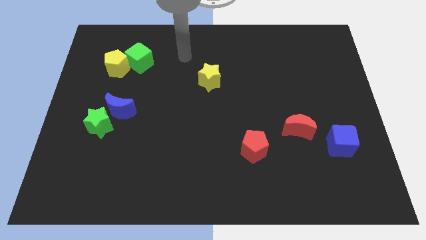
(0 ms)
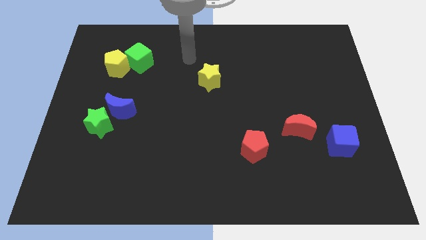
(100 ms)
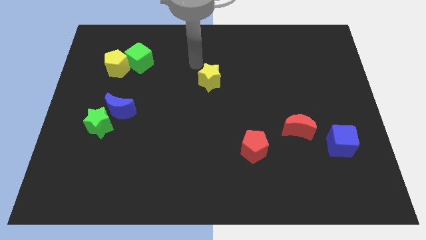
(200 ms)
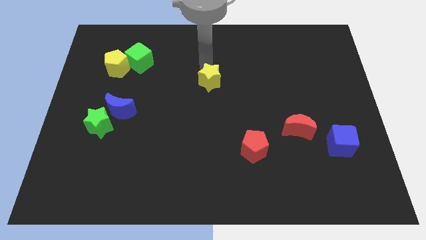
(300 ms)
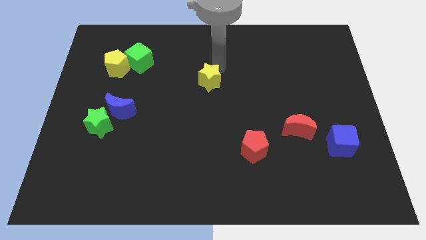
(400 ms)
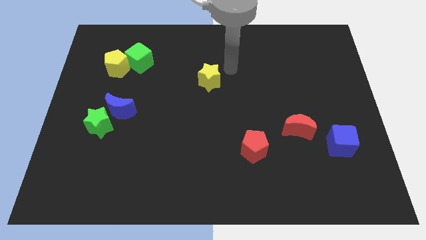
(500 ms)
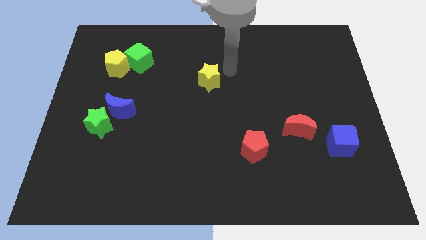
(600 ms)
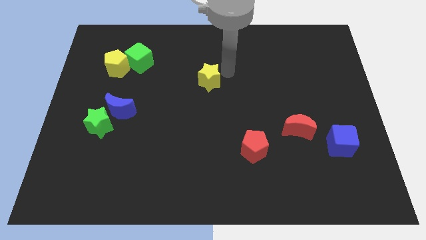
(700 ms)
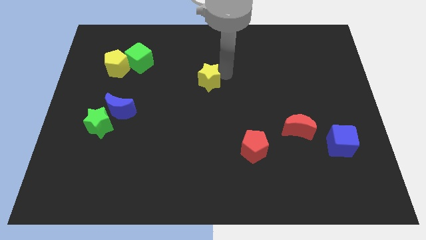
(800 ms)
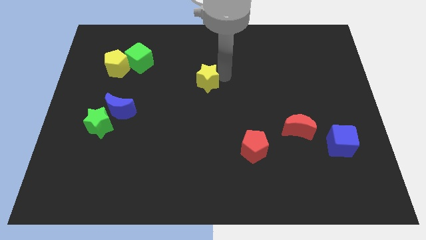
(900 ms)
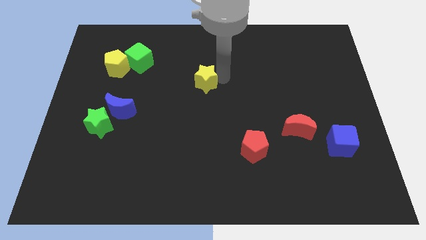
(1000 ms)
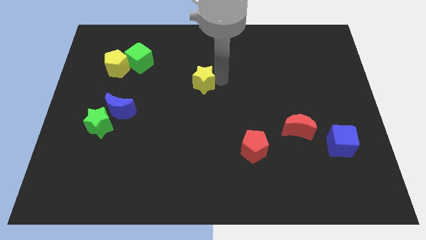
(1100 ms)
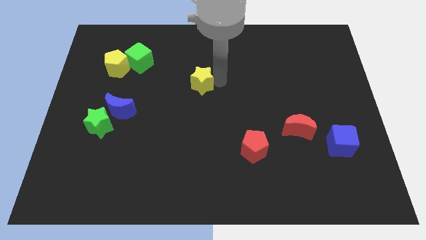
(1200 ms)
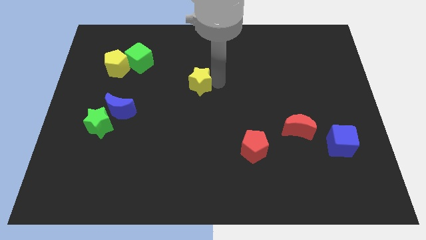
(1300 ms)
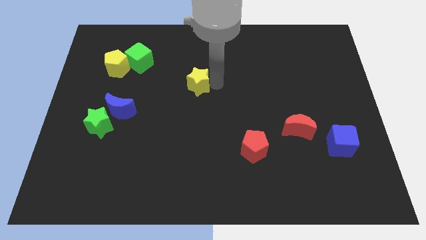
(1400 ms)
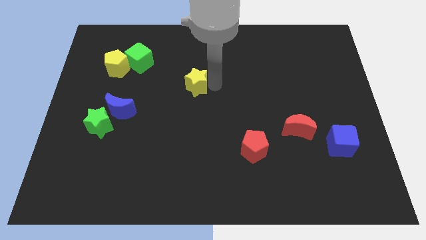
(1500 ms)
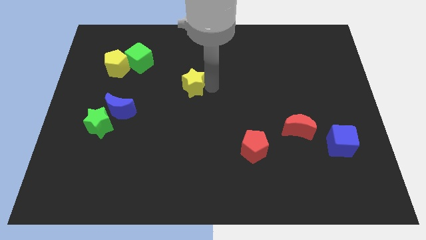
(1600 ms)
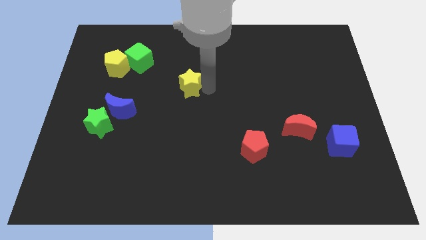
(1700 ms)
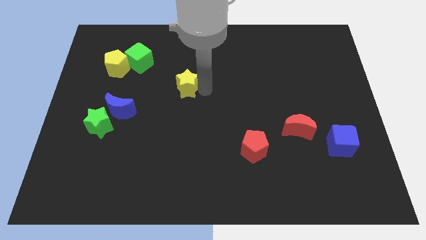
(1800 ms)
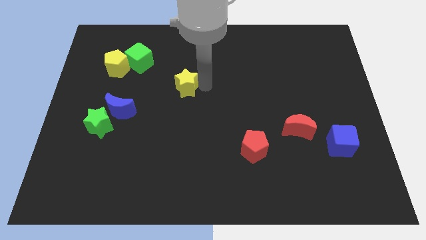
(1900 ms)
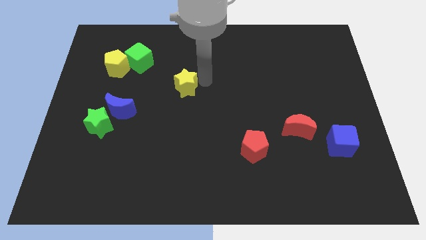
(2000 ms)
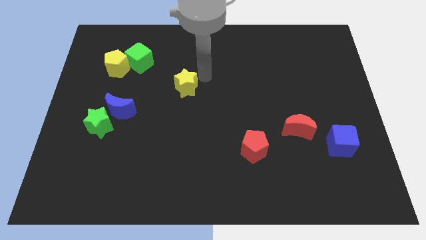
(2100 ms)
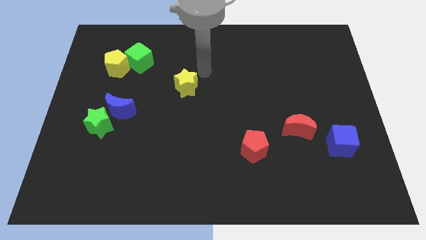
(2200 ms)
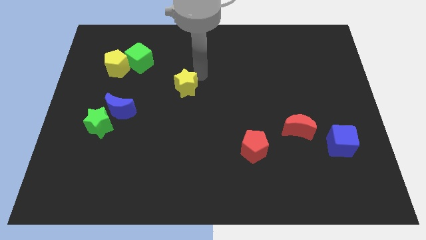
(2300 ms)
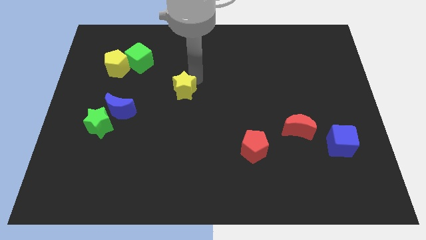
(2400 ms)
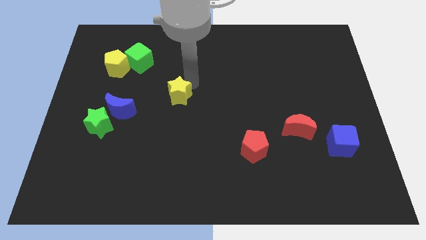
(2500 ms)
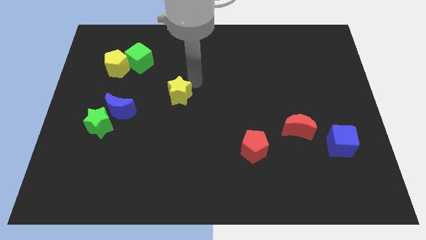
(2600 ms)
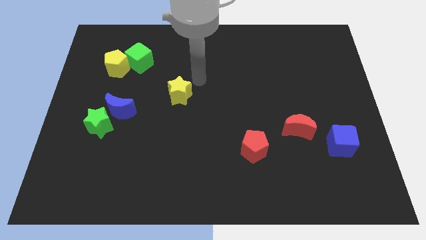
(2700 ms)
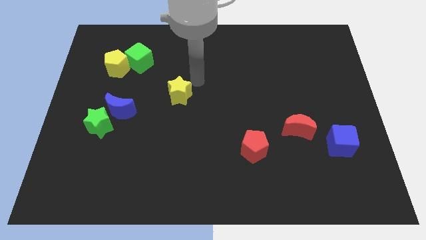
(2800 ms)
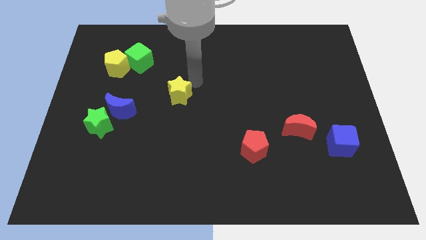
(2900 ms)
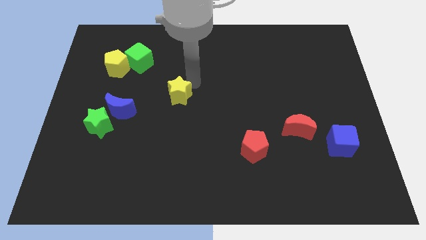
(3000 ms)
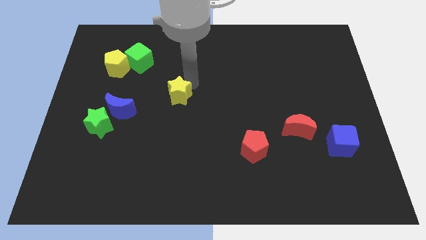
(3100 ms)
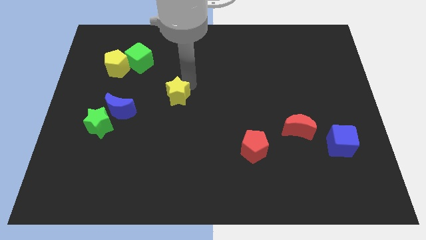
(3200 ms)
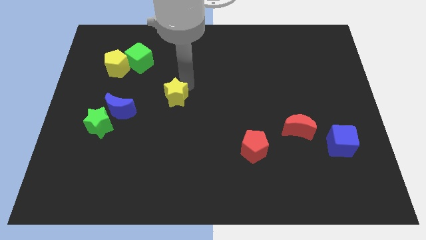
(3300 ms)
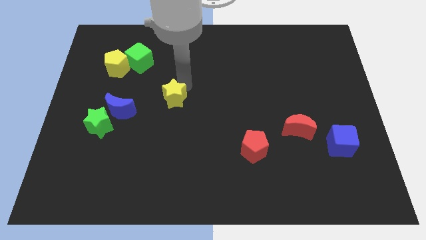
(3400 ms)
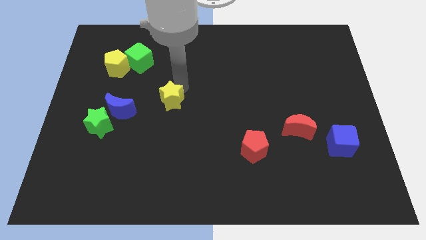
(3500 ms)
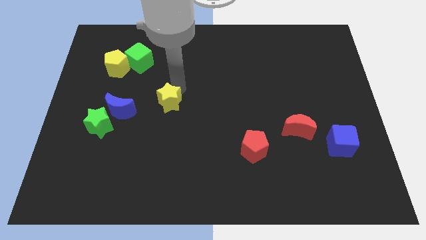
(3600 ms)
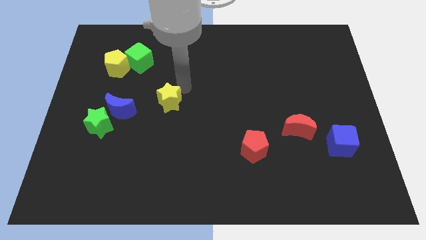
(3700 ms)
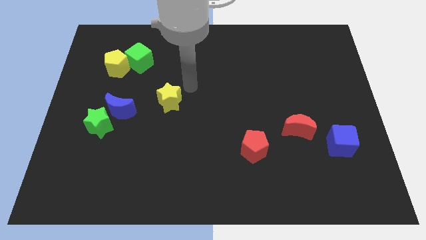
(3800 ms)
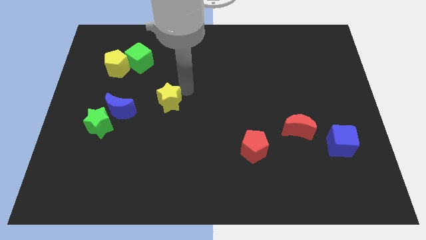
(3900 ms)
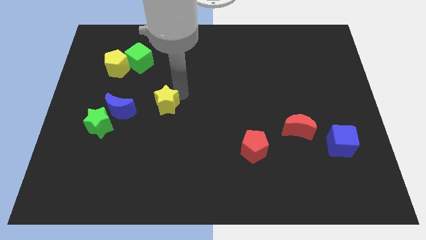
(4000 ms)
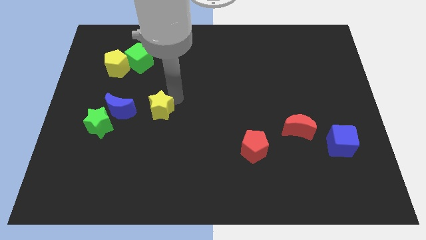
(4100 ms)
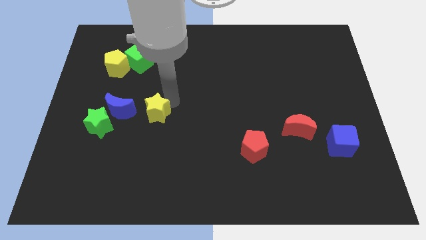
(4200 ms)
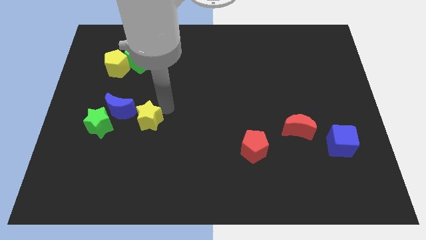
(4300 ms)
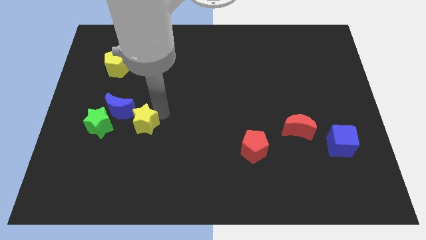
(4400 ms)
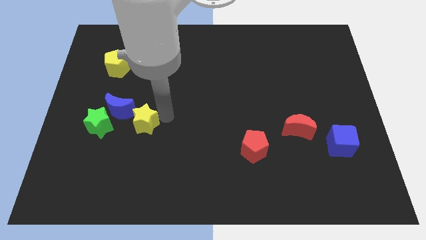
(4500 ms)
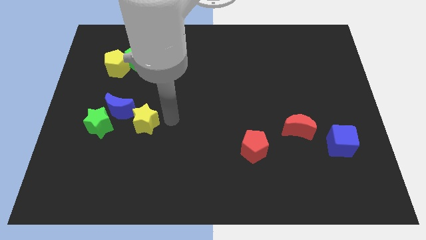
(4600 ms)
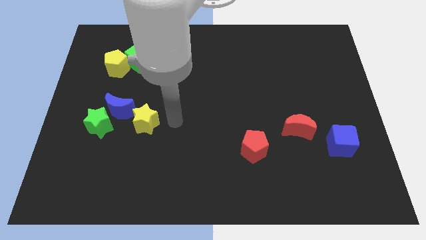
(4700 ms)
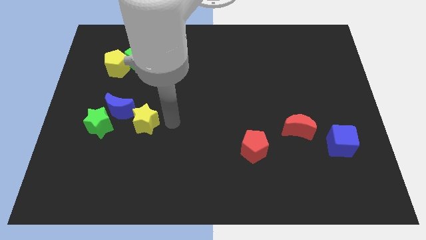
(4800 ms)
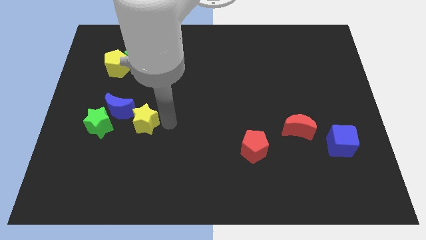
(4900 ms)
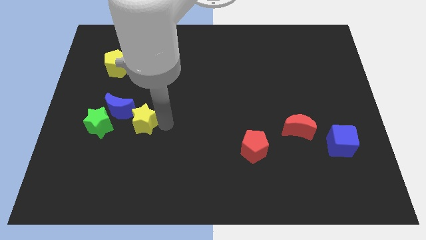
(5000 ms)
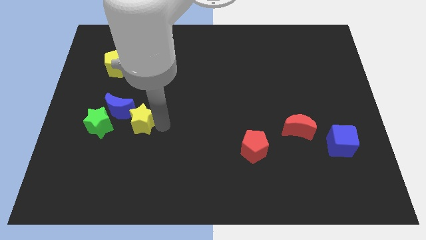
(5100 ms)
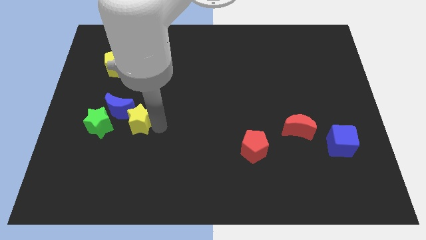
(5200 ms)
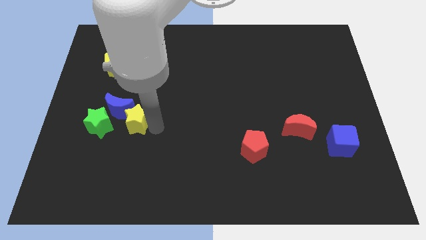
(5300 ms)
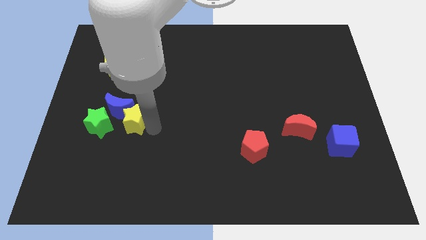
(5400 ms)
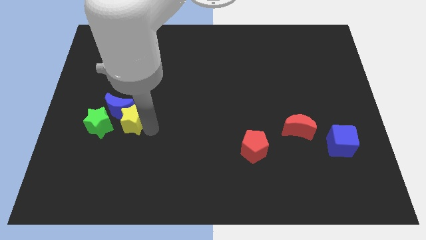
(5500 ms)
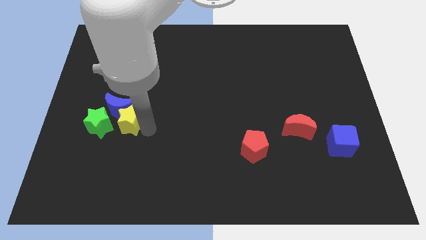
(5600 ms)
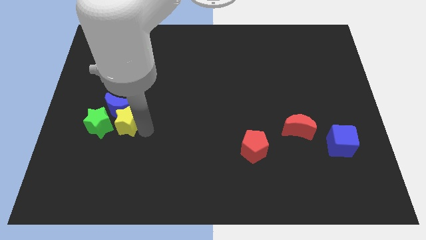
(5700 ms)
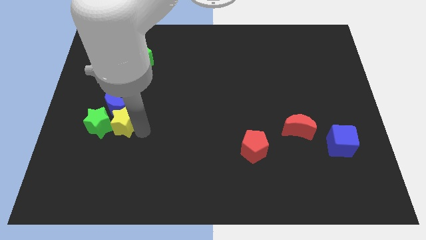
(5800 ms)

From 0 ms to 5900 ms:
slide the yellow star towards the green star

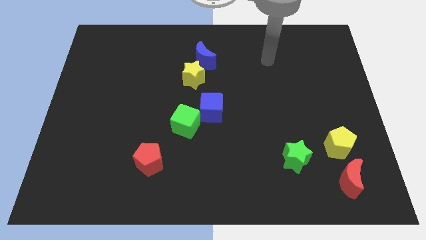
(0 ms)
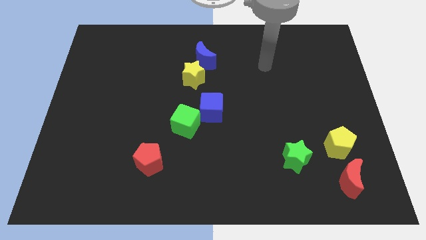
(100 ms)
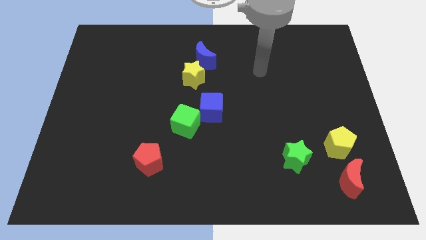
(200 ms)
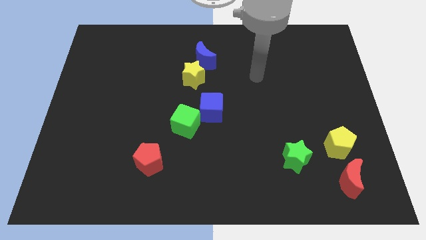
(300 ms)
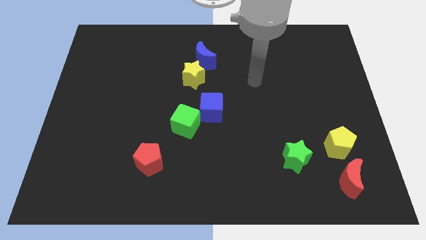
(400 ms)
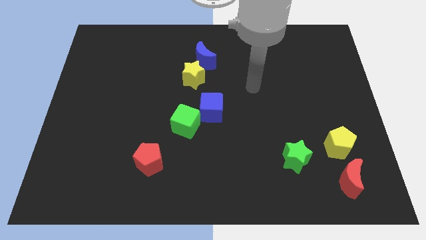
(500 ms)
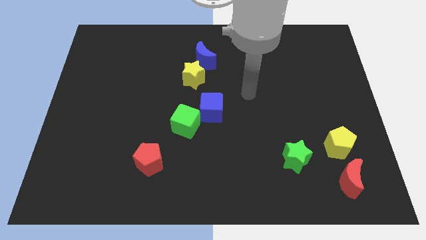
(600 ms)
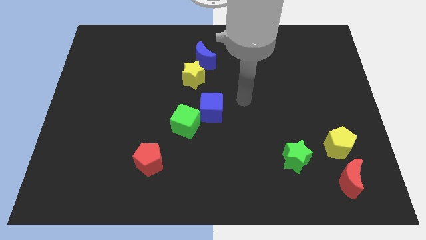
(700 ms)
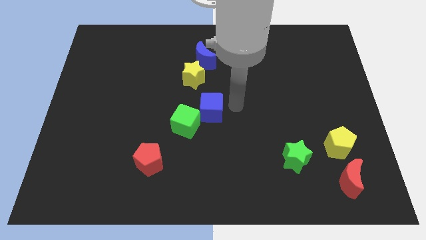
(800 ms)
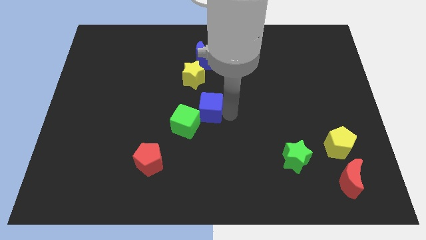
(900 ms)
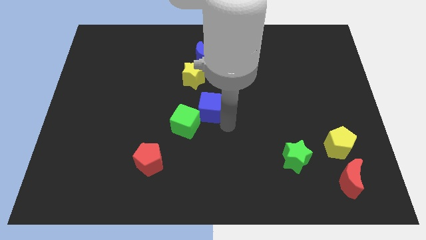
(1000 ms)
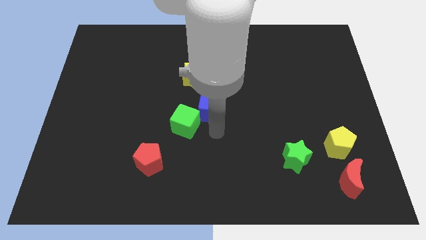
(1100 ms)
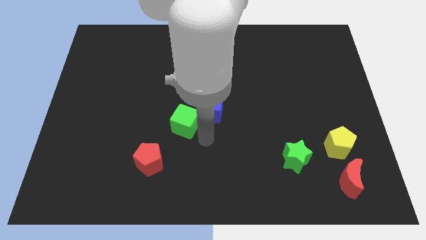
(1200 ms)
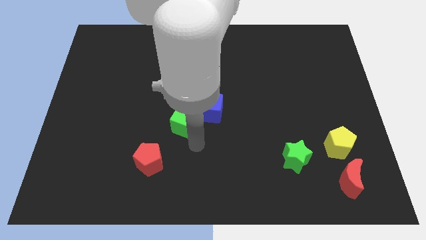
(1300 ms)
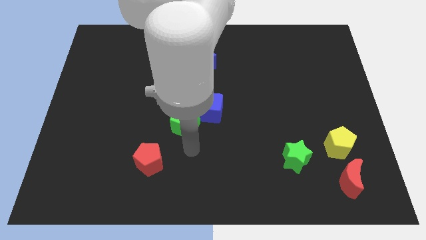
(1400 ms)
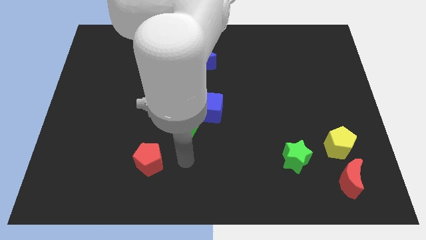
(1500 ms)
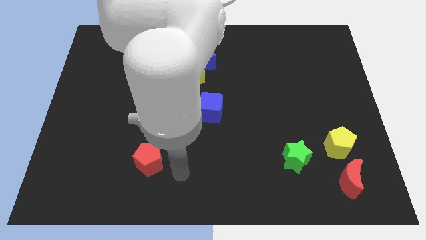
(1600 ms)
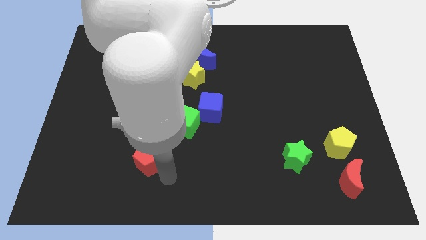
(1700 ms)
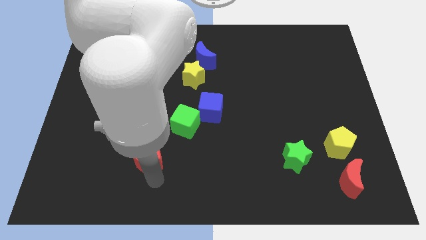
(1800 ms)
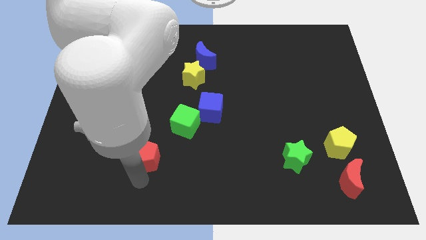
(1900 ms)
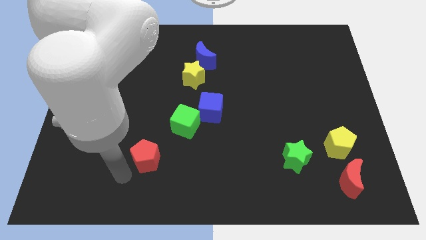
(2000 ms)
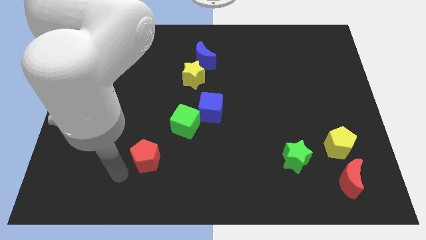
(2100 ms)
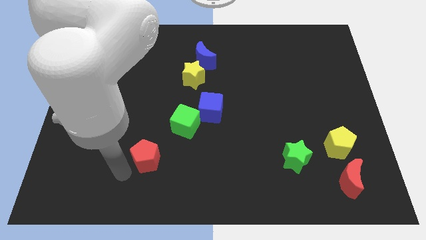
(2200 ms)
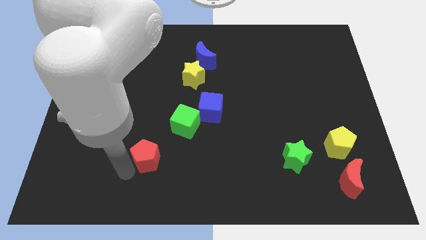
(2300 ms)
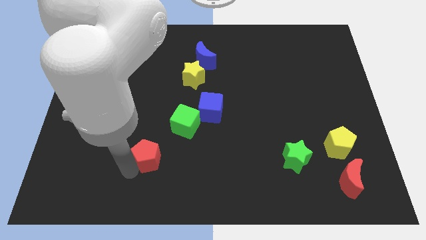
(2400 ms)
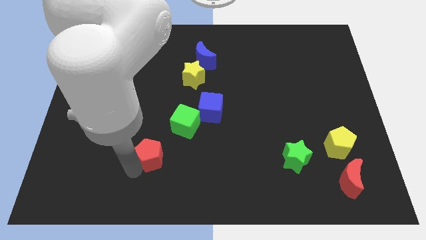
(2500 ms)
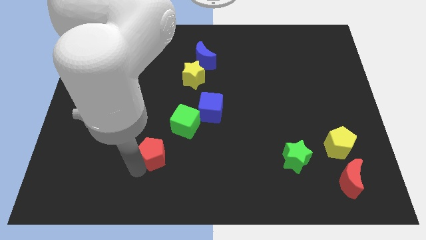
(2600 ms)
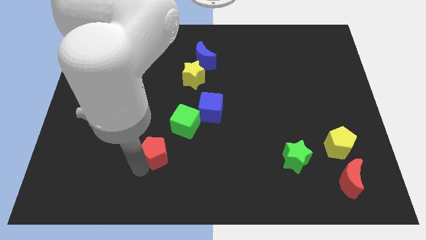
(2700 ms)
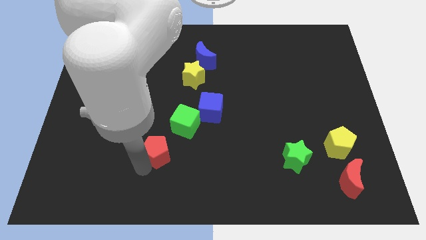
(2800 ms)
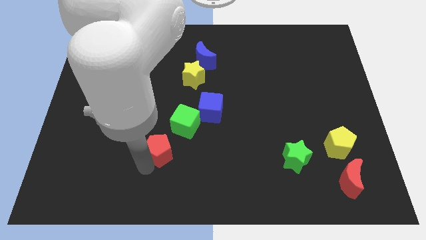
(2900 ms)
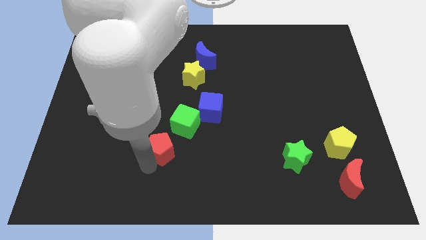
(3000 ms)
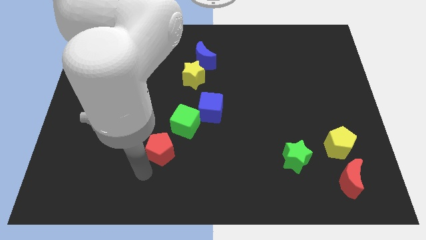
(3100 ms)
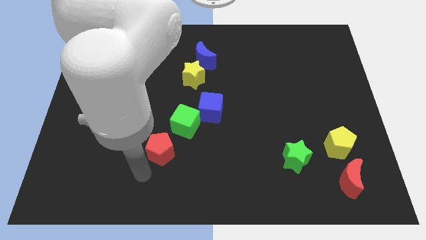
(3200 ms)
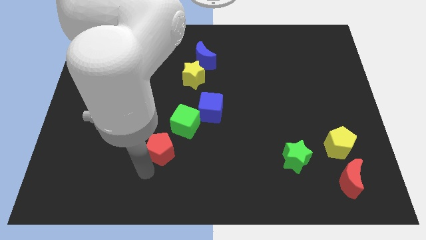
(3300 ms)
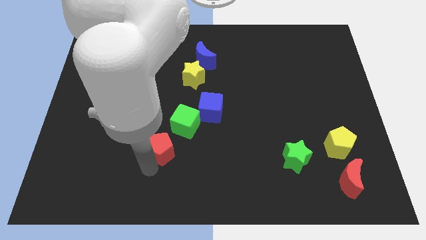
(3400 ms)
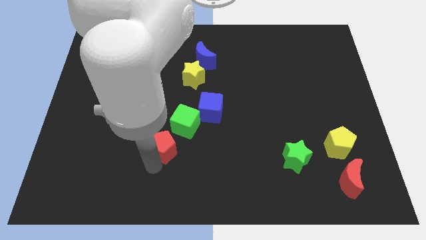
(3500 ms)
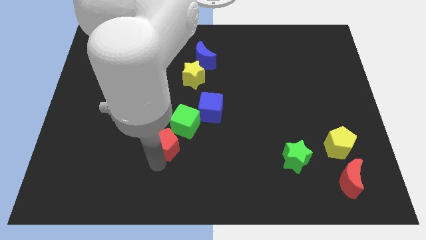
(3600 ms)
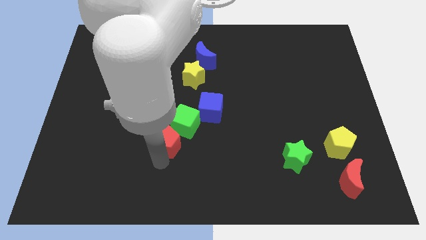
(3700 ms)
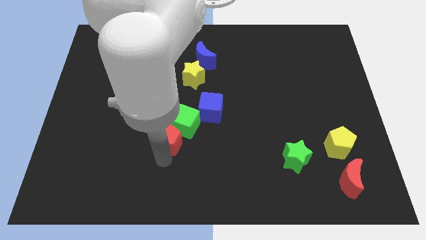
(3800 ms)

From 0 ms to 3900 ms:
push the red pentagon next to the green cube
